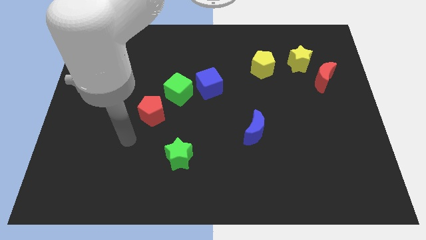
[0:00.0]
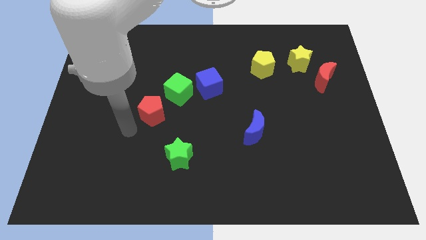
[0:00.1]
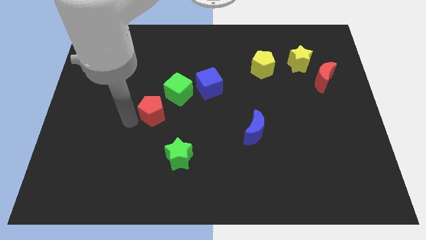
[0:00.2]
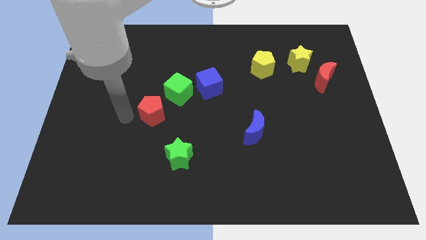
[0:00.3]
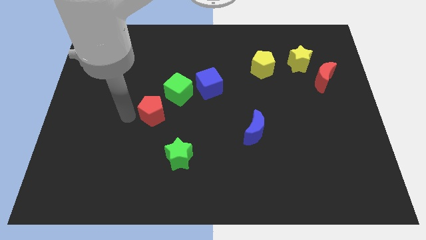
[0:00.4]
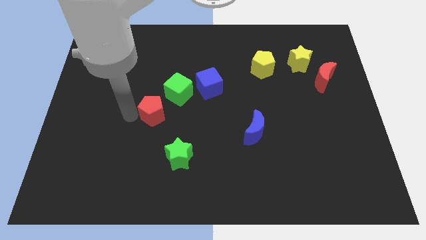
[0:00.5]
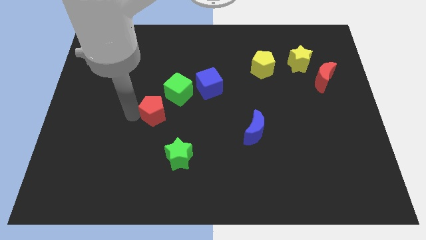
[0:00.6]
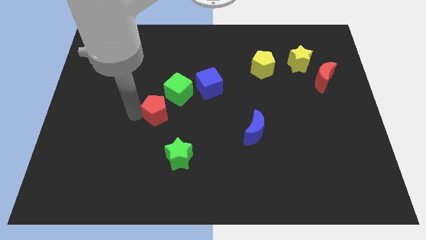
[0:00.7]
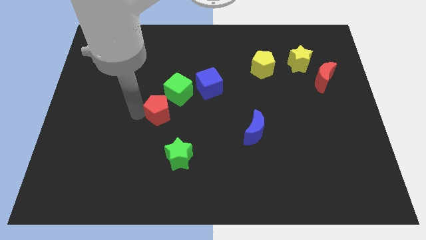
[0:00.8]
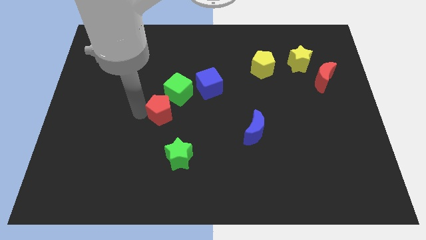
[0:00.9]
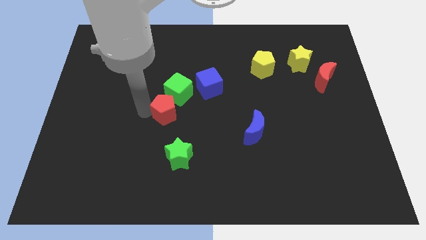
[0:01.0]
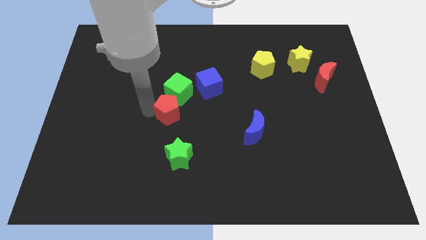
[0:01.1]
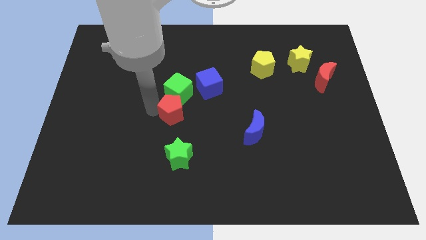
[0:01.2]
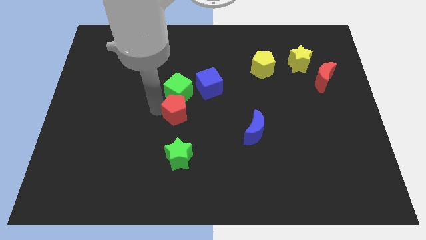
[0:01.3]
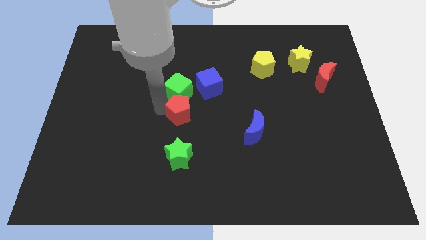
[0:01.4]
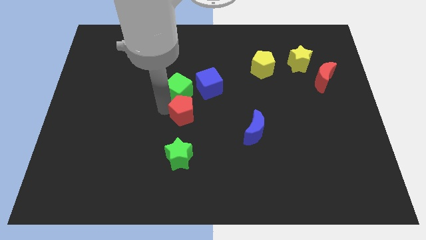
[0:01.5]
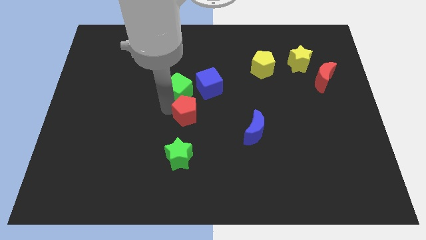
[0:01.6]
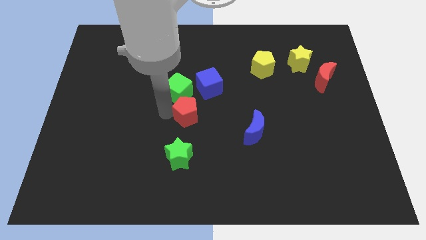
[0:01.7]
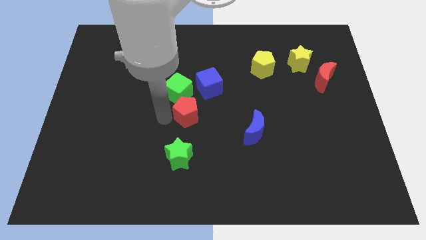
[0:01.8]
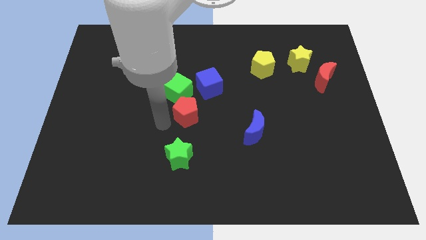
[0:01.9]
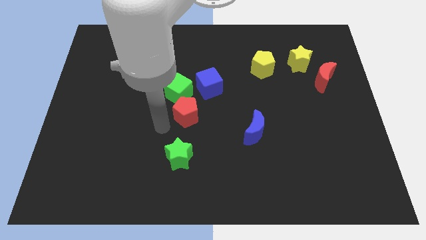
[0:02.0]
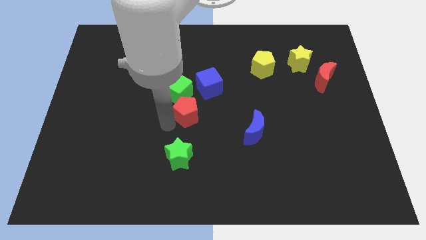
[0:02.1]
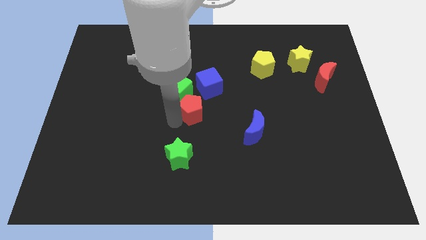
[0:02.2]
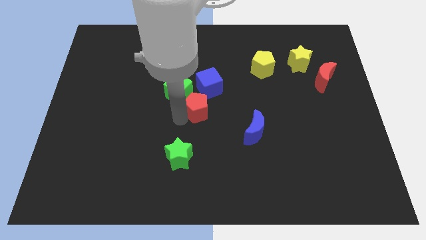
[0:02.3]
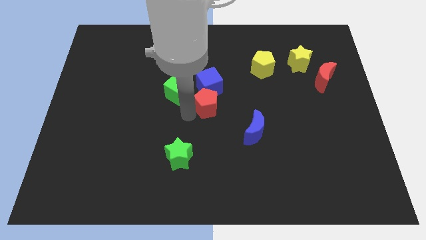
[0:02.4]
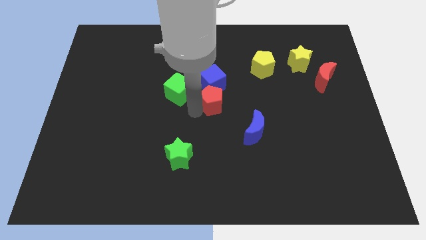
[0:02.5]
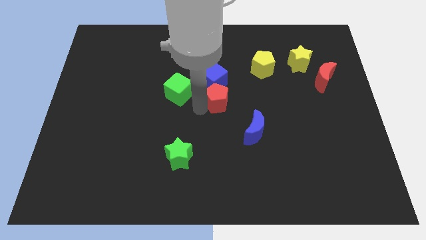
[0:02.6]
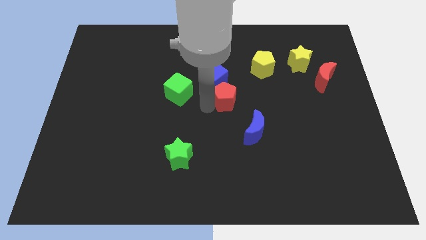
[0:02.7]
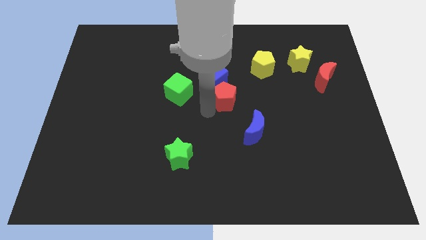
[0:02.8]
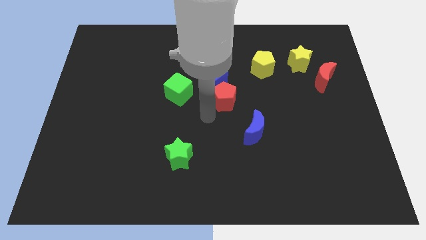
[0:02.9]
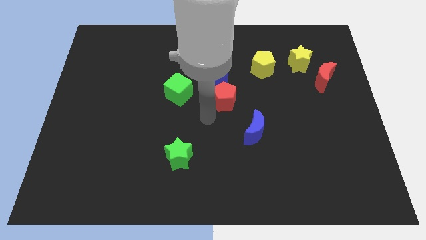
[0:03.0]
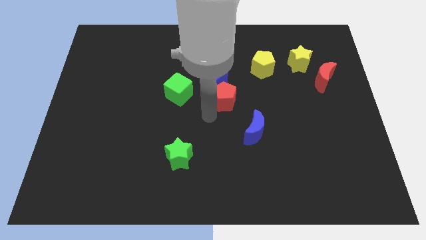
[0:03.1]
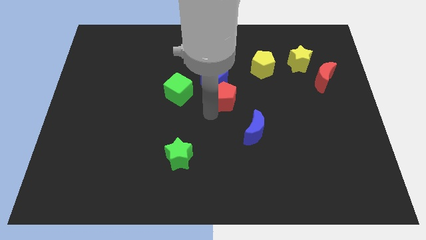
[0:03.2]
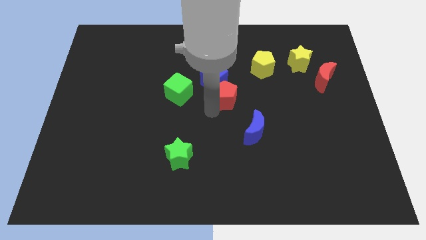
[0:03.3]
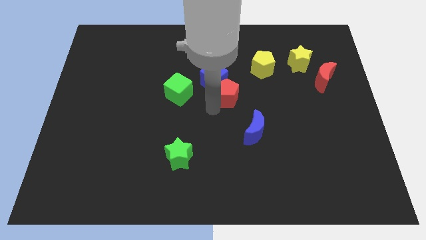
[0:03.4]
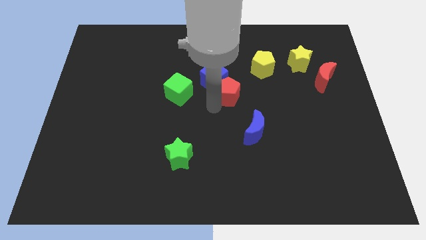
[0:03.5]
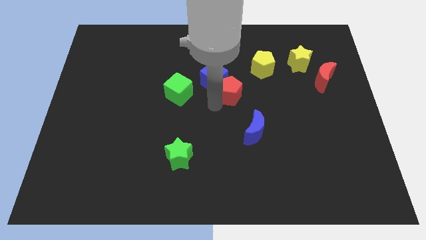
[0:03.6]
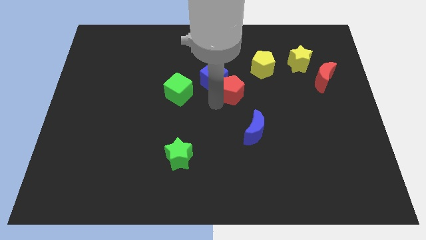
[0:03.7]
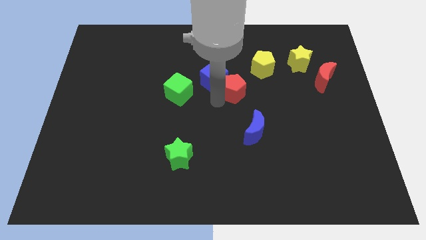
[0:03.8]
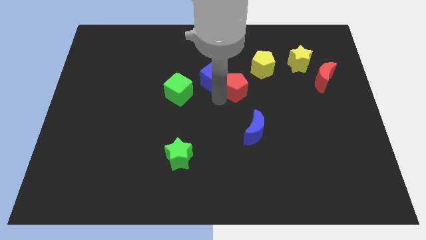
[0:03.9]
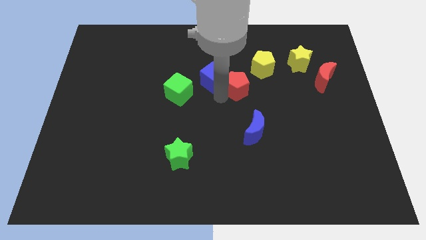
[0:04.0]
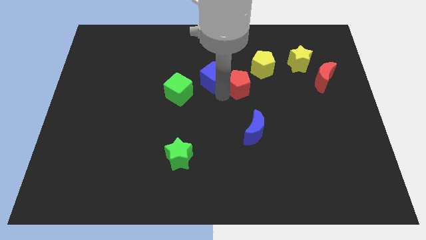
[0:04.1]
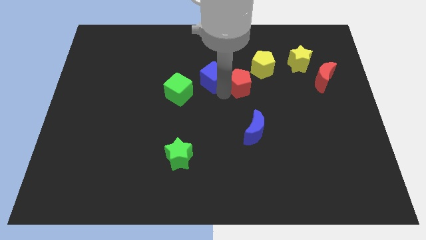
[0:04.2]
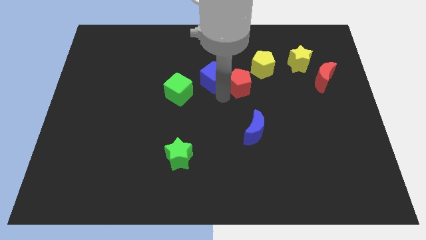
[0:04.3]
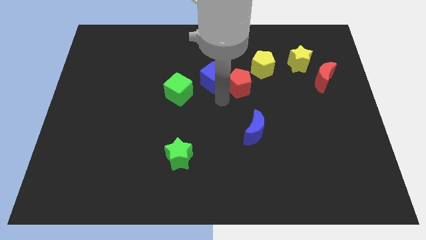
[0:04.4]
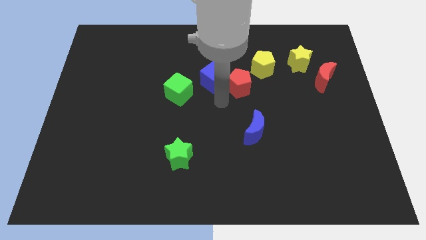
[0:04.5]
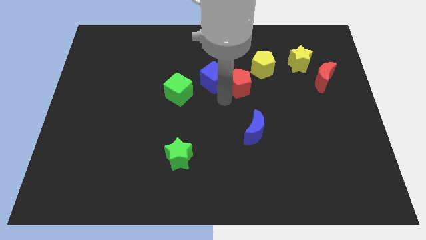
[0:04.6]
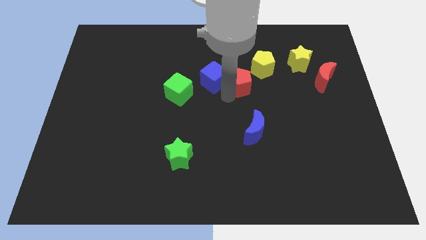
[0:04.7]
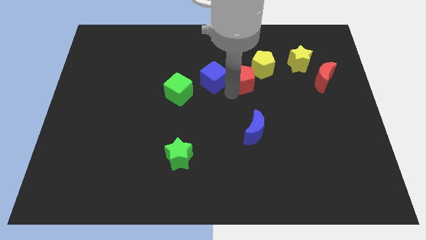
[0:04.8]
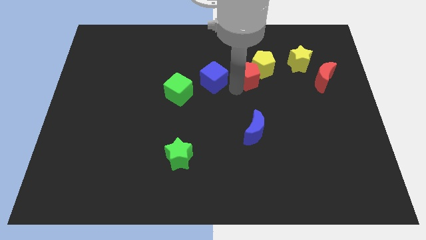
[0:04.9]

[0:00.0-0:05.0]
move the red pentagon towards the yellow pentagon

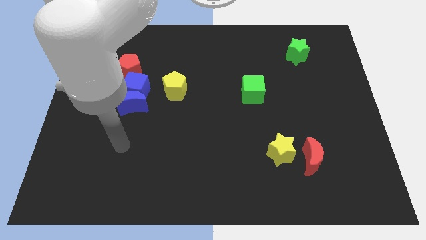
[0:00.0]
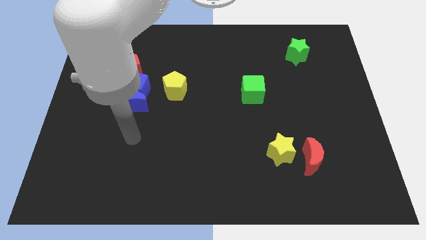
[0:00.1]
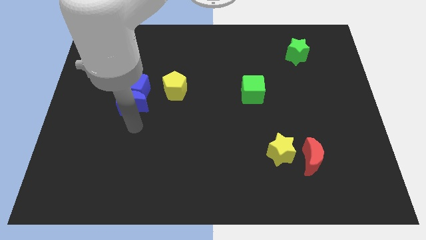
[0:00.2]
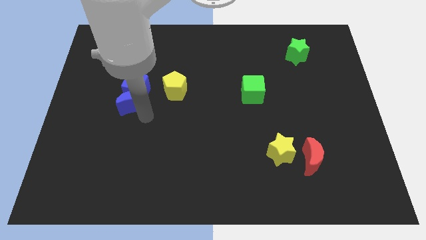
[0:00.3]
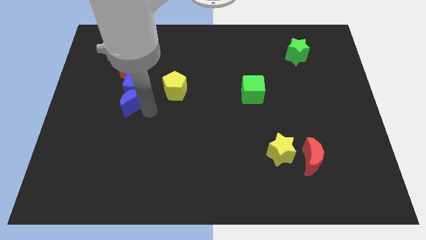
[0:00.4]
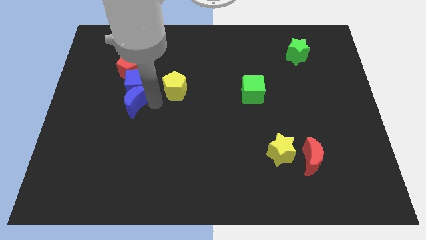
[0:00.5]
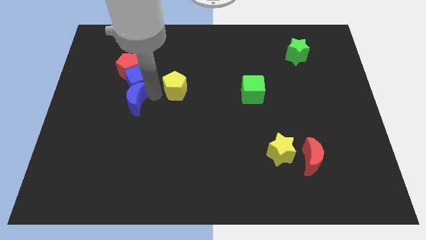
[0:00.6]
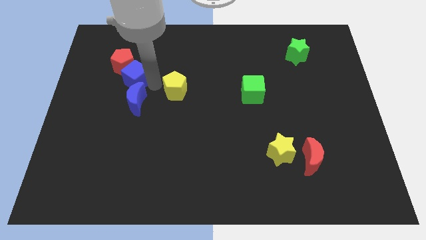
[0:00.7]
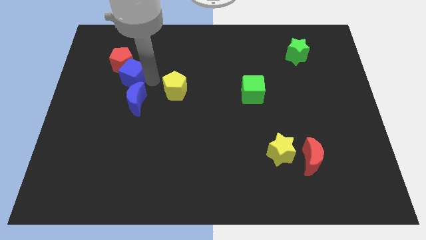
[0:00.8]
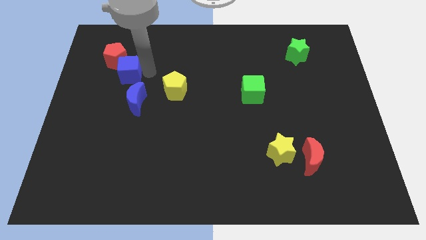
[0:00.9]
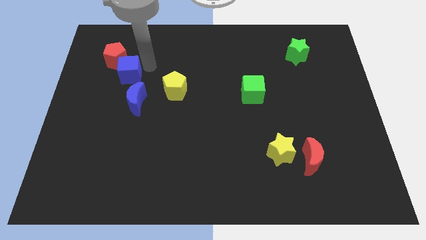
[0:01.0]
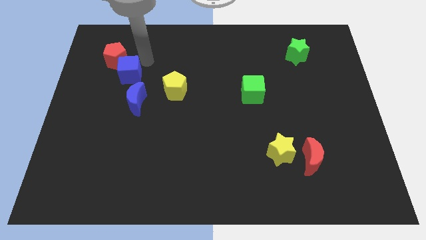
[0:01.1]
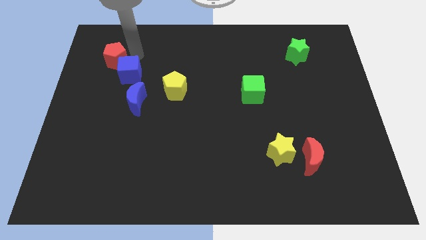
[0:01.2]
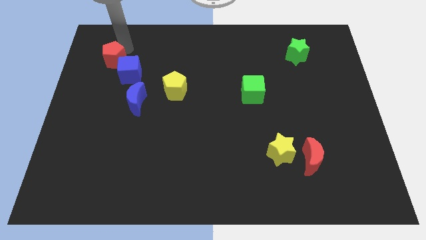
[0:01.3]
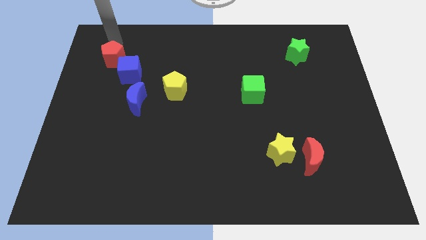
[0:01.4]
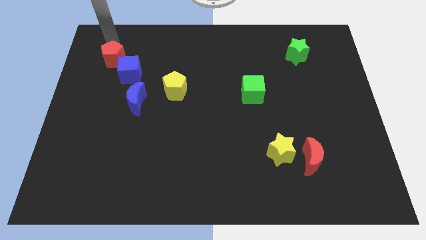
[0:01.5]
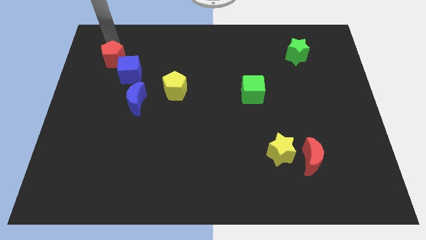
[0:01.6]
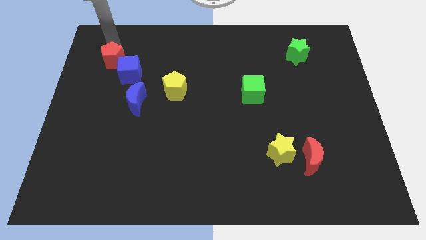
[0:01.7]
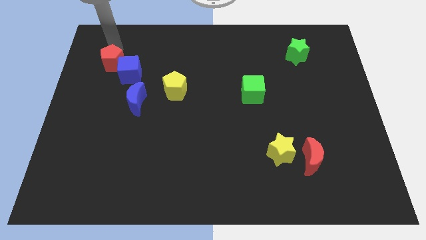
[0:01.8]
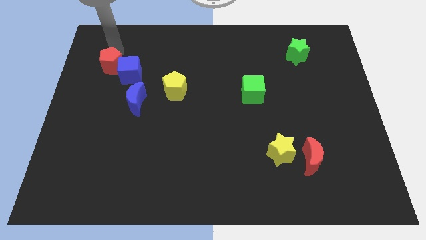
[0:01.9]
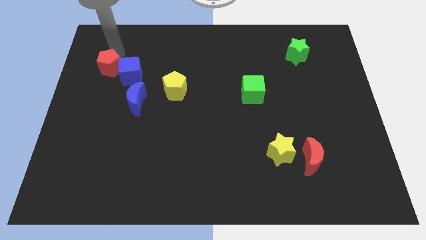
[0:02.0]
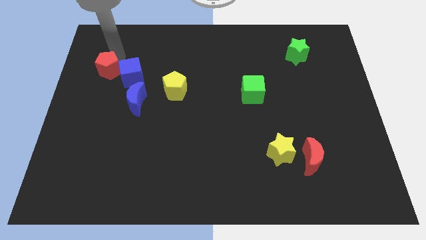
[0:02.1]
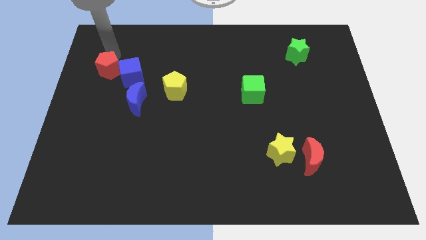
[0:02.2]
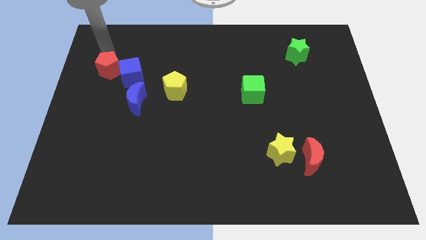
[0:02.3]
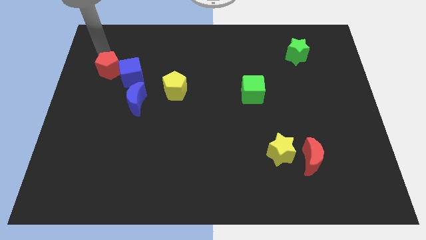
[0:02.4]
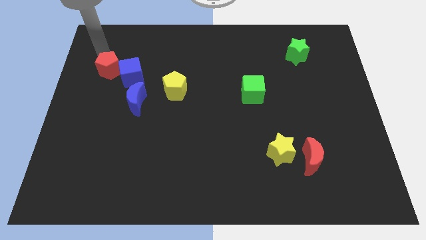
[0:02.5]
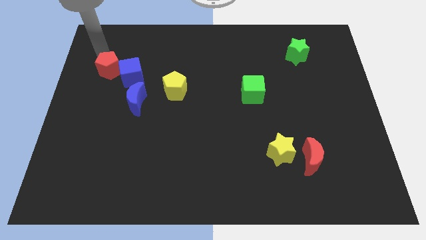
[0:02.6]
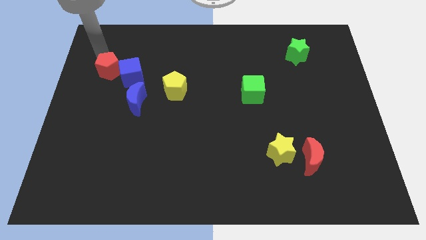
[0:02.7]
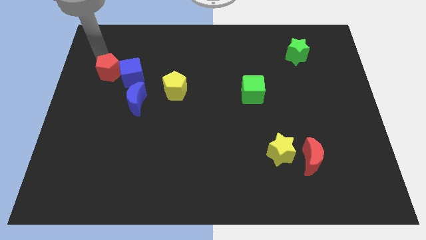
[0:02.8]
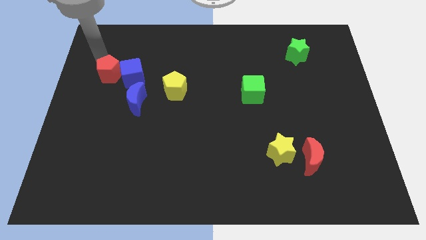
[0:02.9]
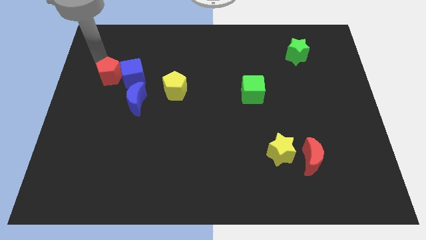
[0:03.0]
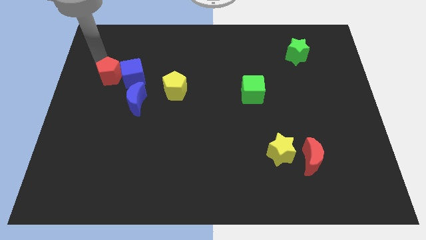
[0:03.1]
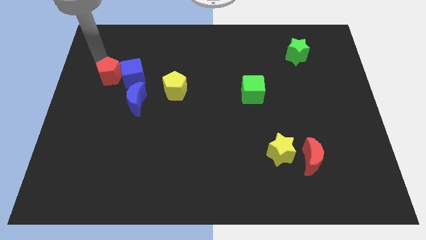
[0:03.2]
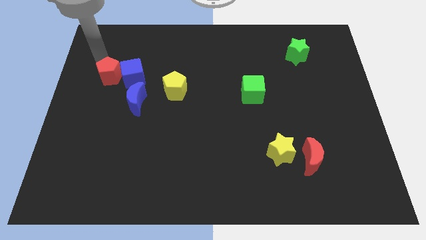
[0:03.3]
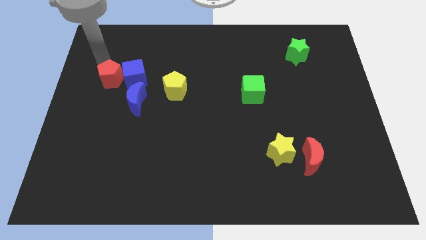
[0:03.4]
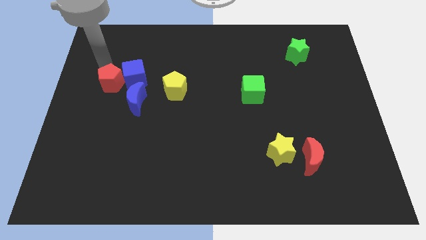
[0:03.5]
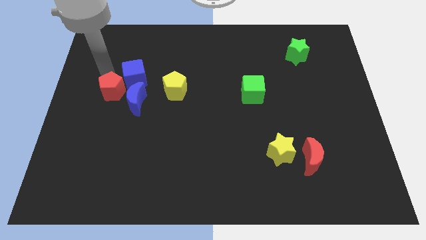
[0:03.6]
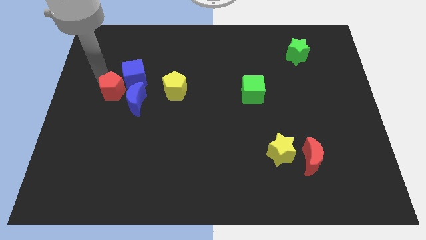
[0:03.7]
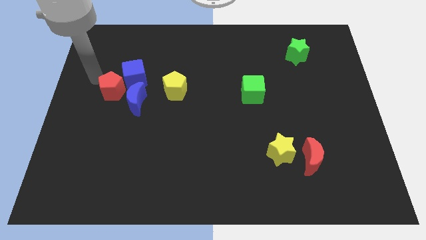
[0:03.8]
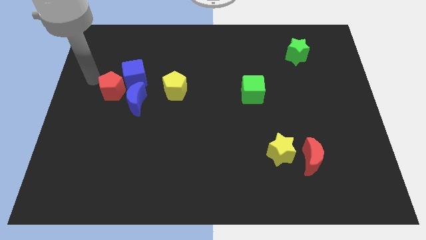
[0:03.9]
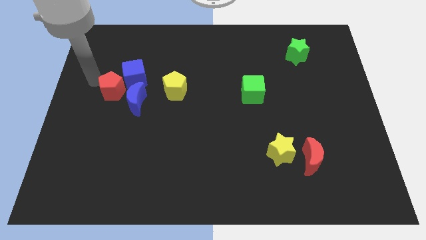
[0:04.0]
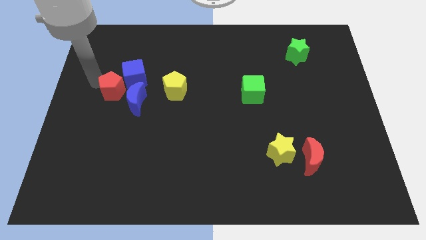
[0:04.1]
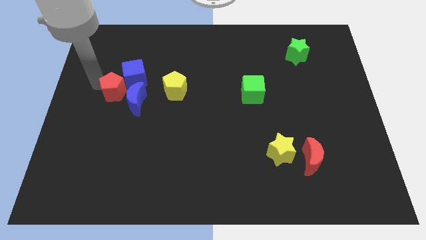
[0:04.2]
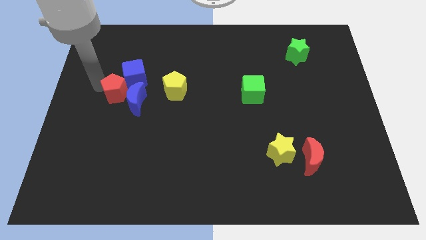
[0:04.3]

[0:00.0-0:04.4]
slide the red pentagon close to the blue moon
